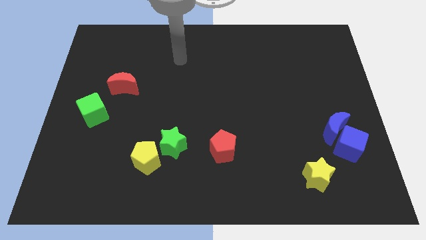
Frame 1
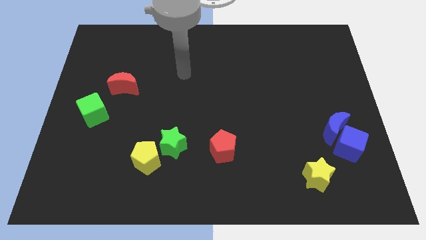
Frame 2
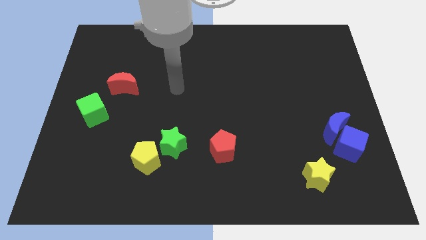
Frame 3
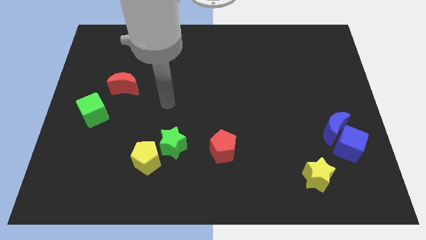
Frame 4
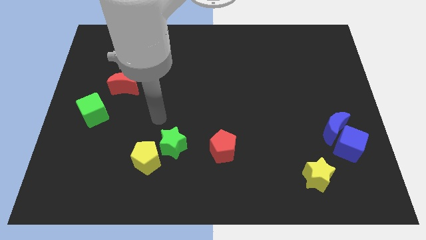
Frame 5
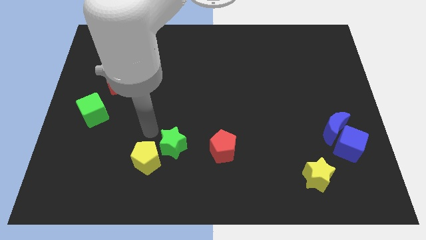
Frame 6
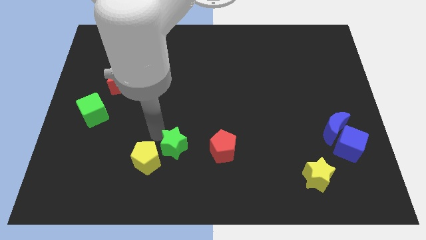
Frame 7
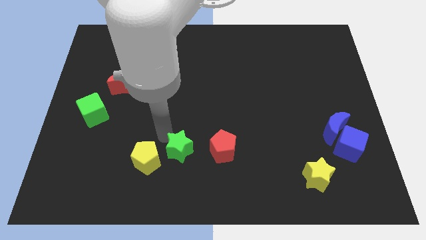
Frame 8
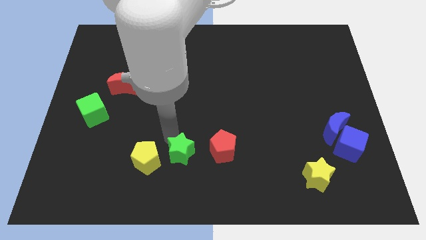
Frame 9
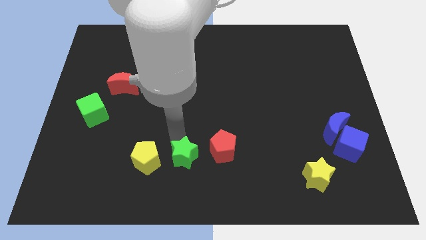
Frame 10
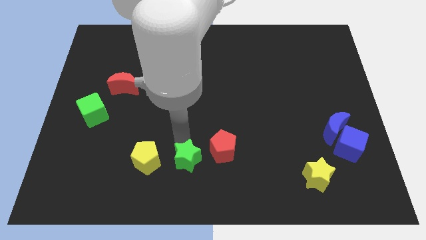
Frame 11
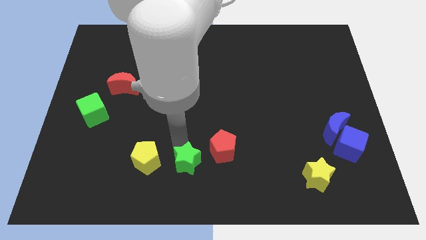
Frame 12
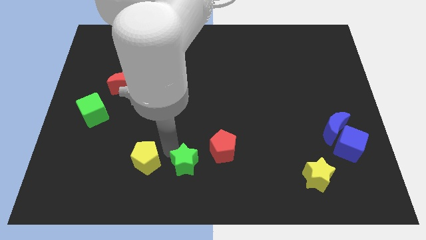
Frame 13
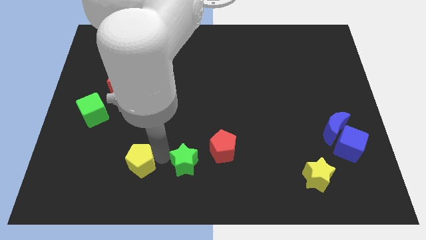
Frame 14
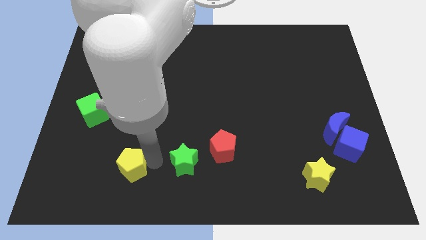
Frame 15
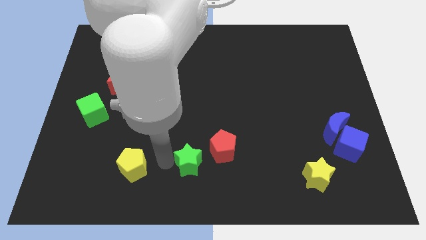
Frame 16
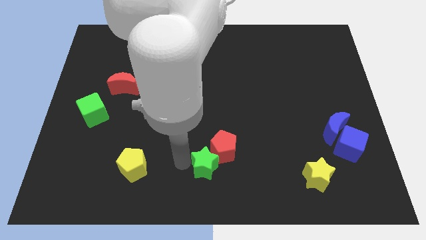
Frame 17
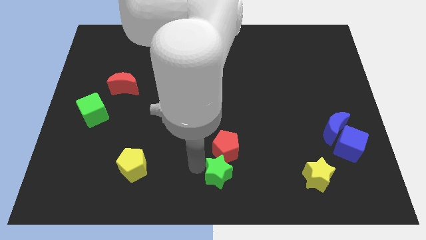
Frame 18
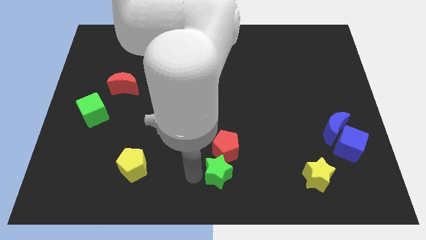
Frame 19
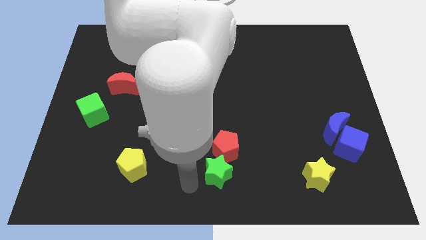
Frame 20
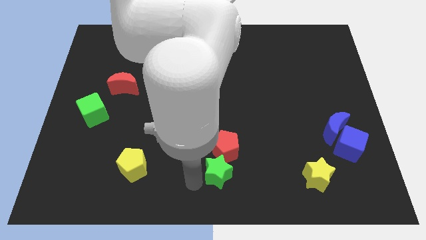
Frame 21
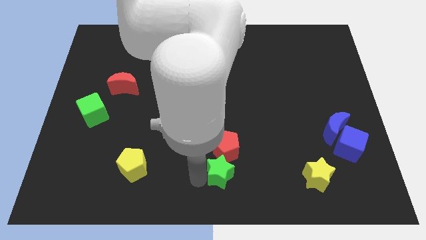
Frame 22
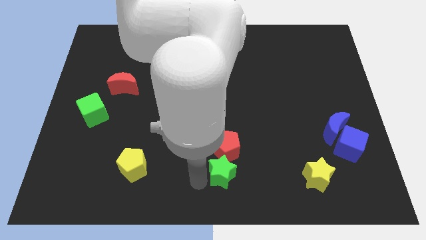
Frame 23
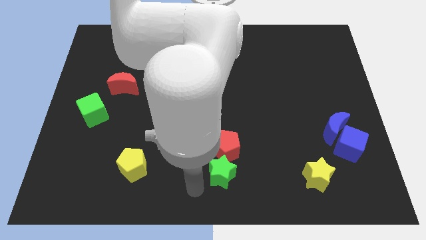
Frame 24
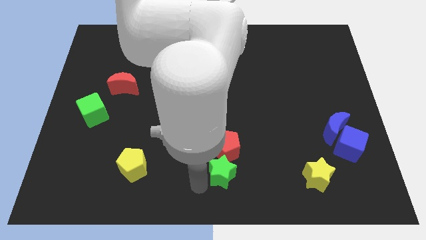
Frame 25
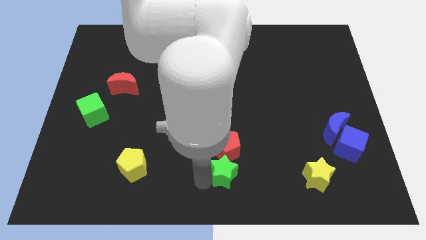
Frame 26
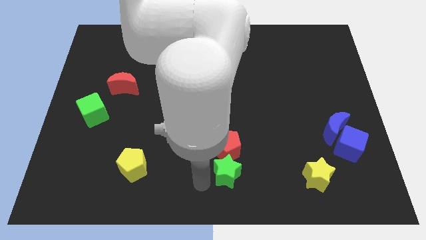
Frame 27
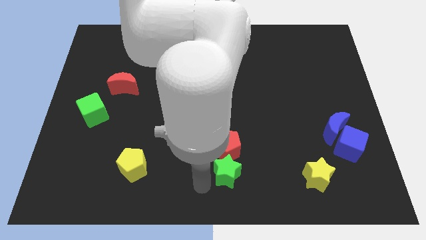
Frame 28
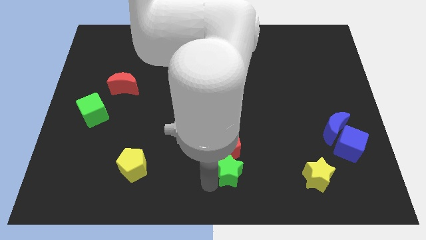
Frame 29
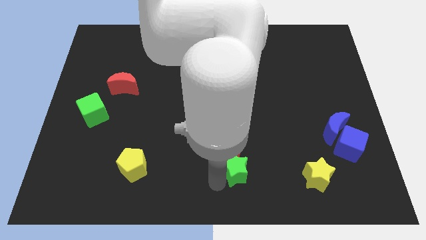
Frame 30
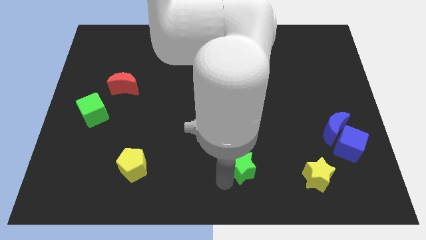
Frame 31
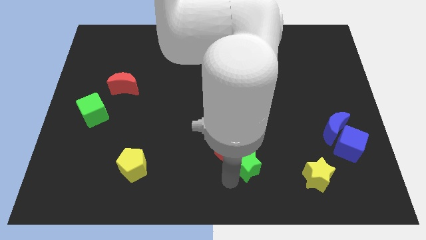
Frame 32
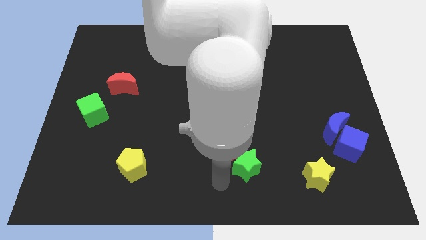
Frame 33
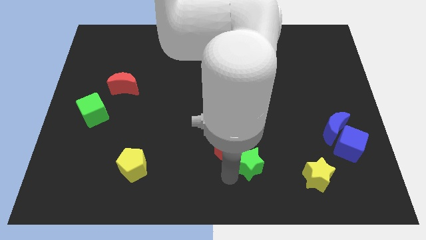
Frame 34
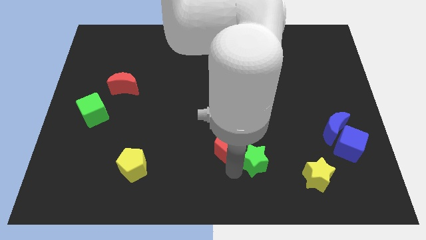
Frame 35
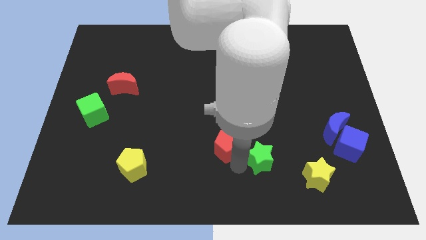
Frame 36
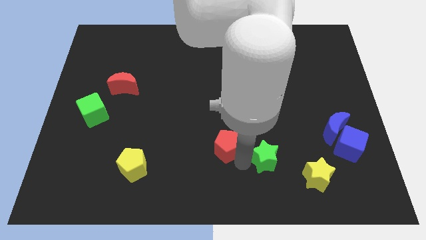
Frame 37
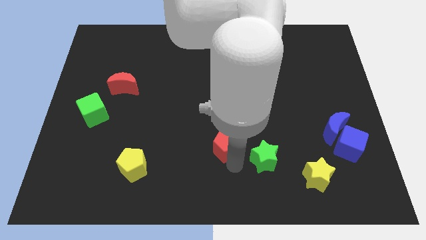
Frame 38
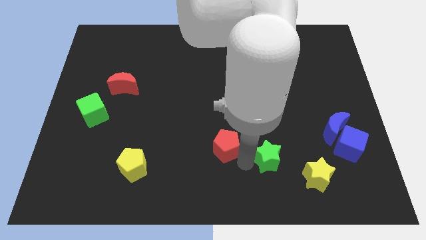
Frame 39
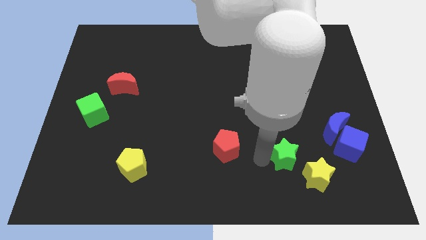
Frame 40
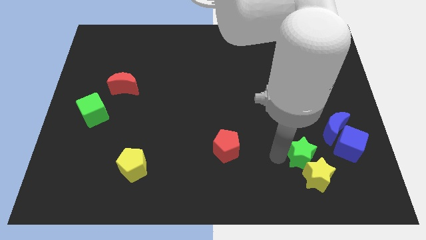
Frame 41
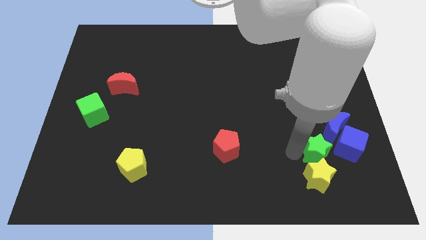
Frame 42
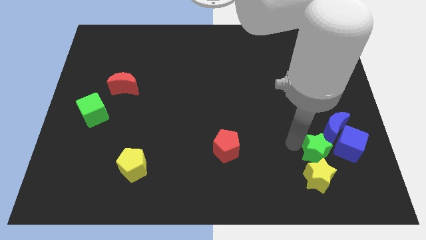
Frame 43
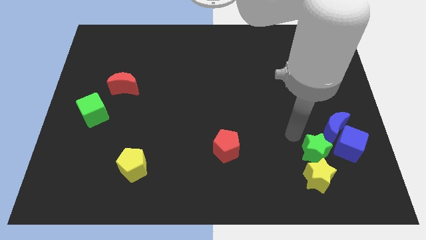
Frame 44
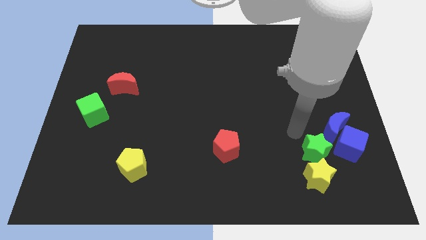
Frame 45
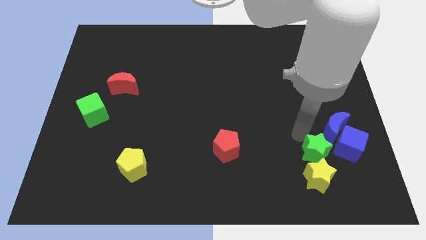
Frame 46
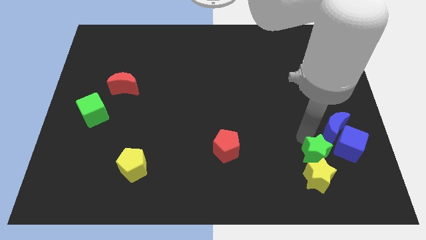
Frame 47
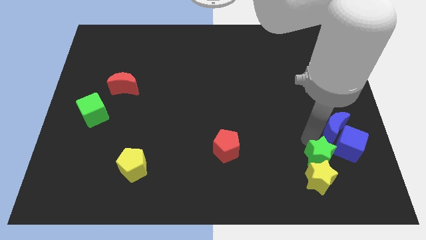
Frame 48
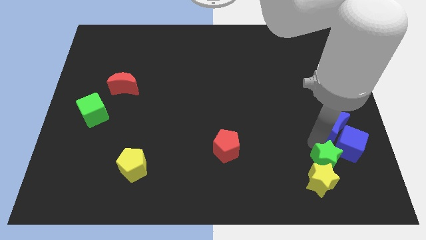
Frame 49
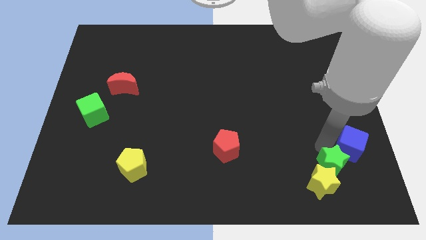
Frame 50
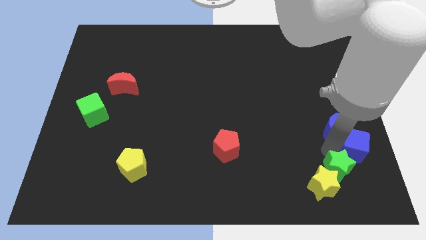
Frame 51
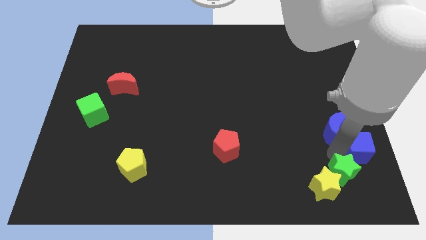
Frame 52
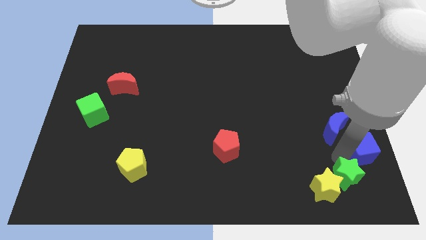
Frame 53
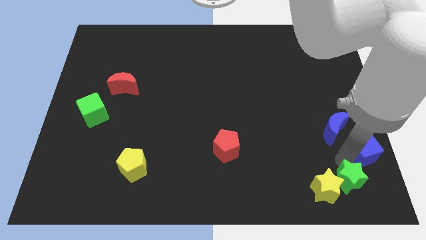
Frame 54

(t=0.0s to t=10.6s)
slide the green star to the bottom right

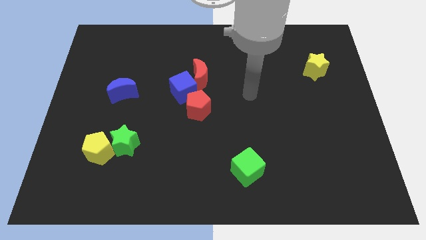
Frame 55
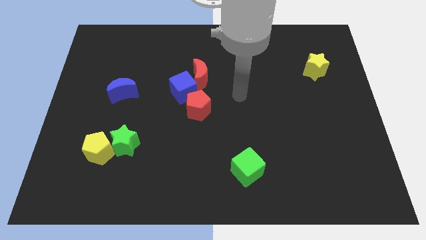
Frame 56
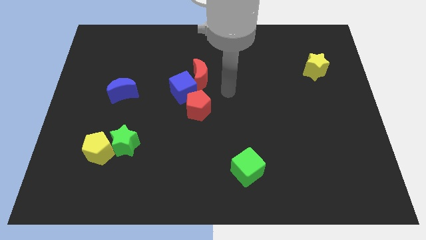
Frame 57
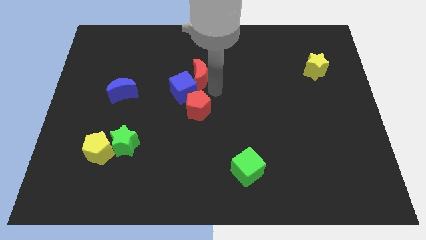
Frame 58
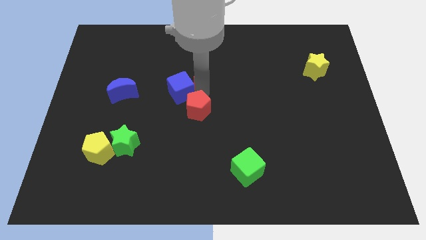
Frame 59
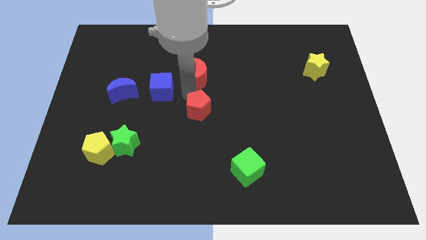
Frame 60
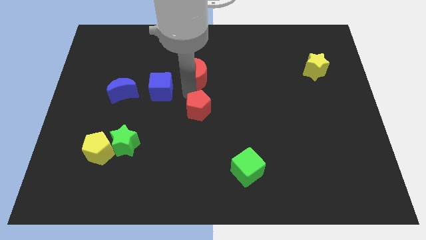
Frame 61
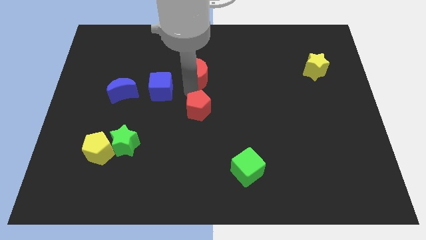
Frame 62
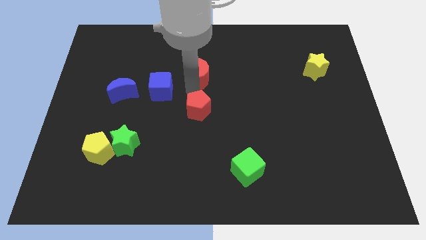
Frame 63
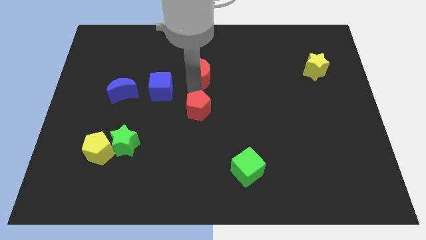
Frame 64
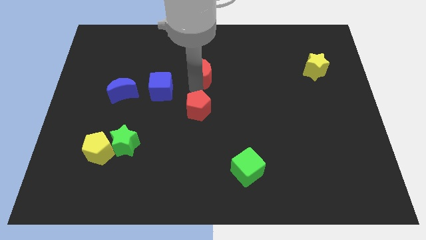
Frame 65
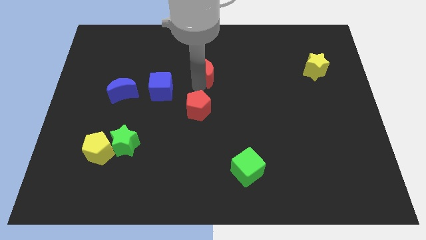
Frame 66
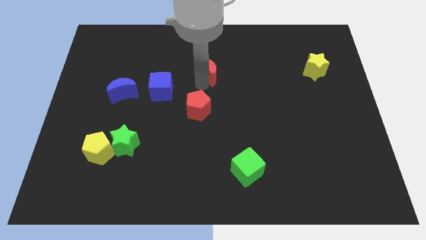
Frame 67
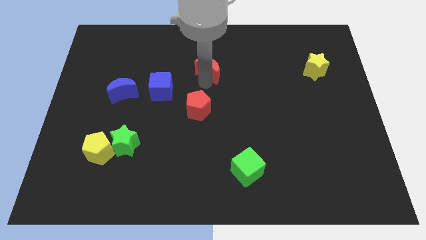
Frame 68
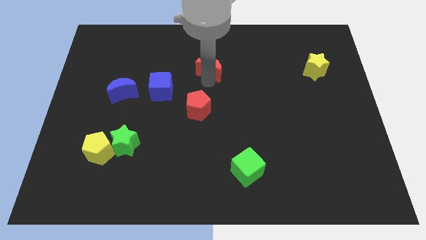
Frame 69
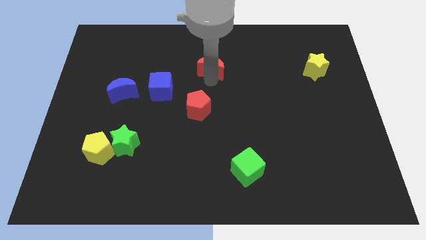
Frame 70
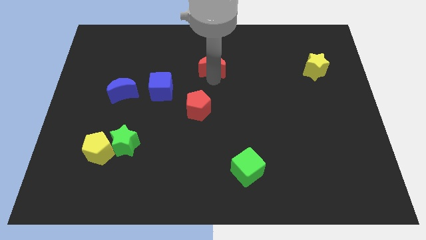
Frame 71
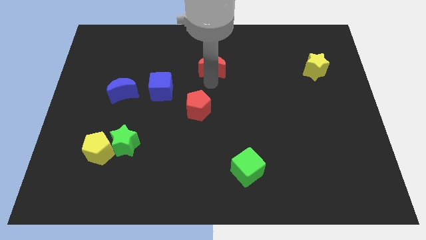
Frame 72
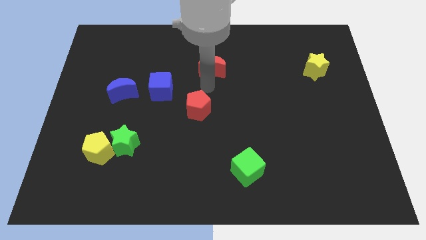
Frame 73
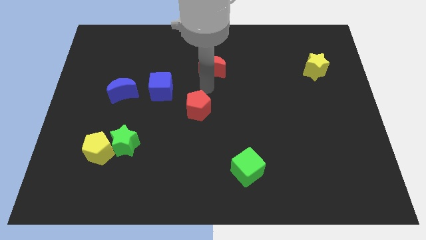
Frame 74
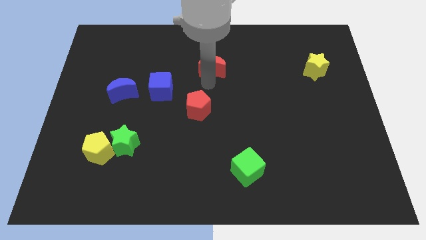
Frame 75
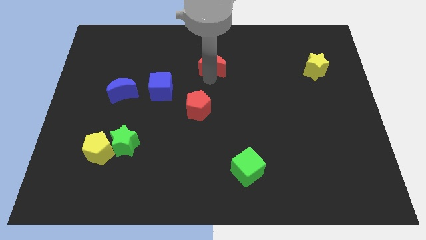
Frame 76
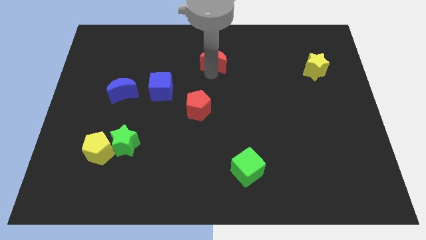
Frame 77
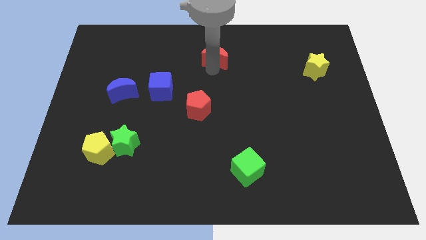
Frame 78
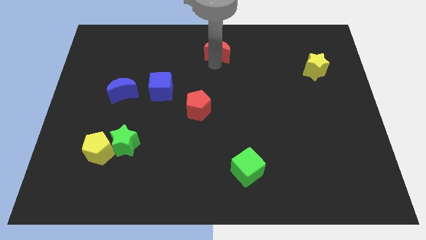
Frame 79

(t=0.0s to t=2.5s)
push the red moon to the top
